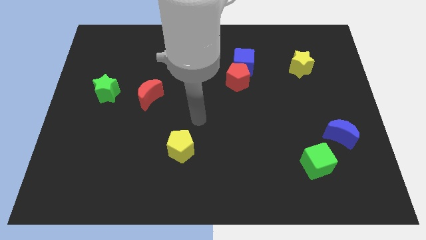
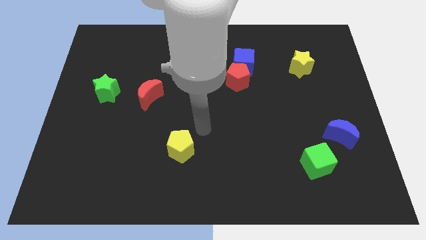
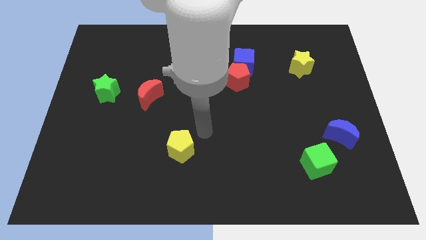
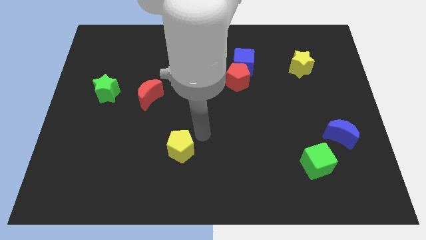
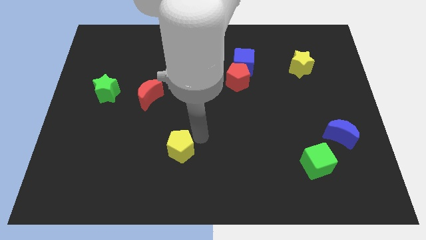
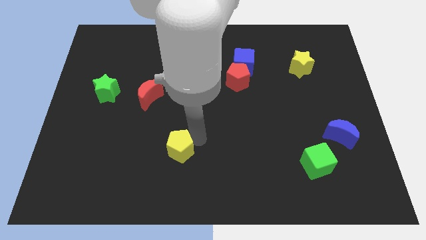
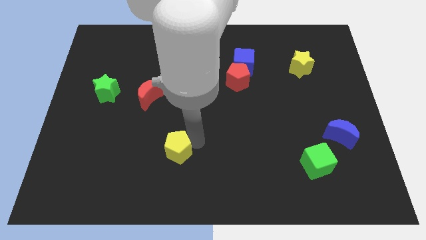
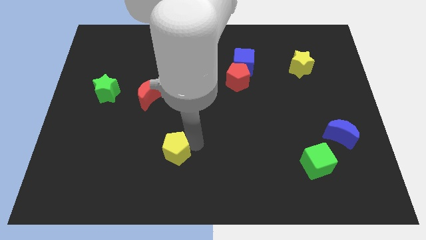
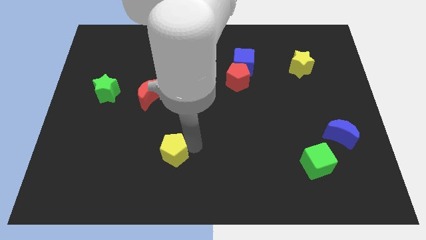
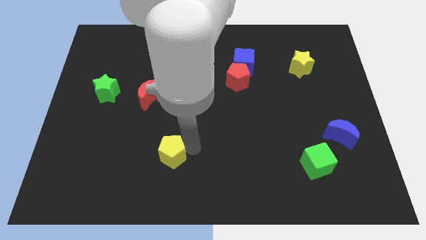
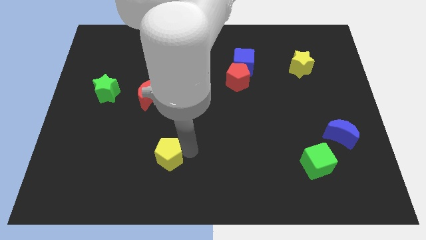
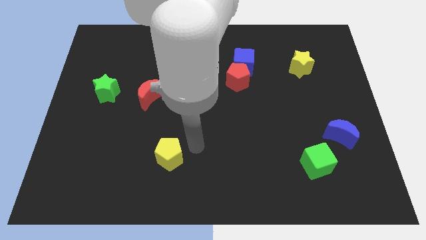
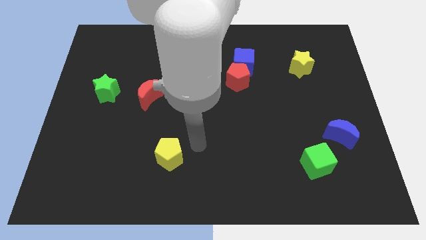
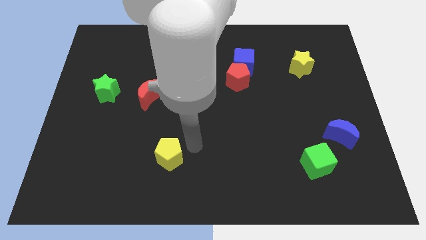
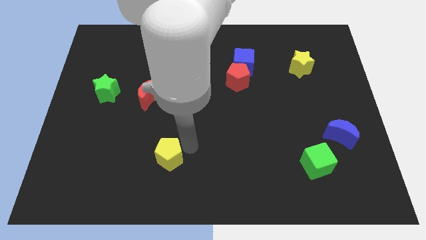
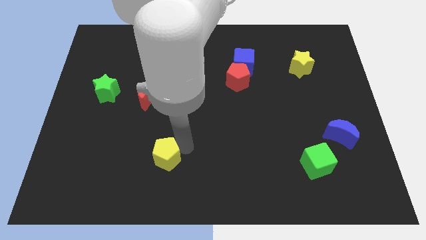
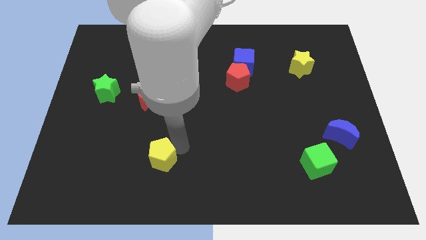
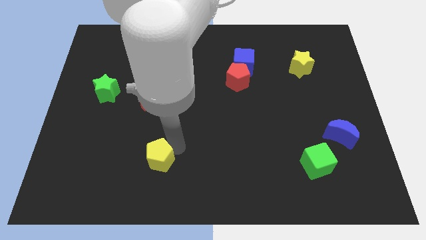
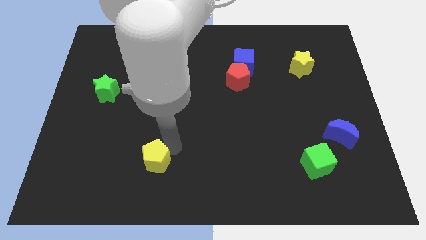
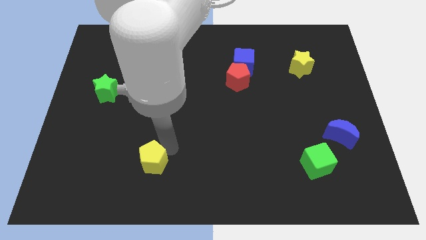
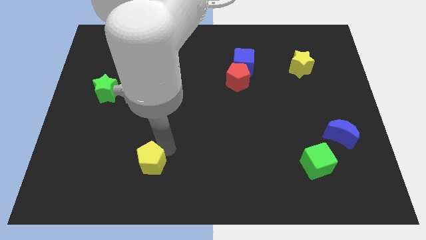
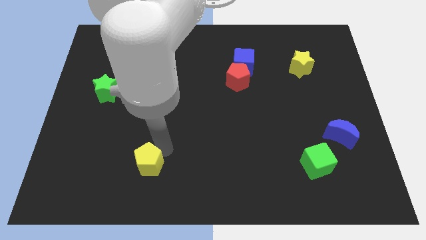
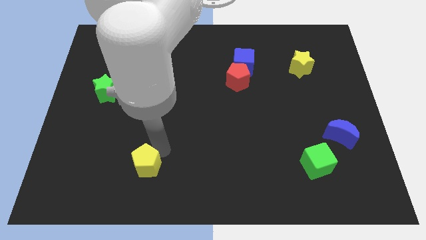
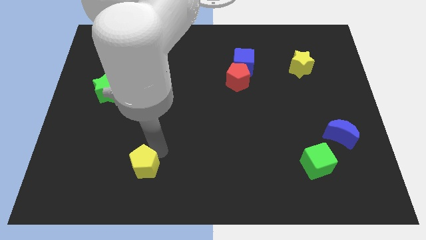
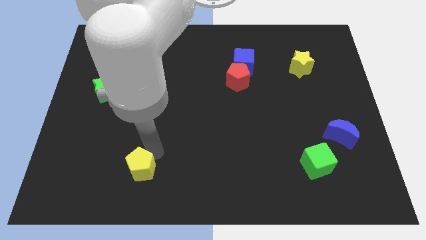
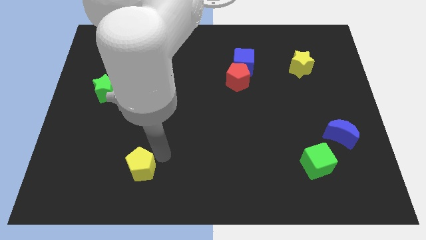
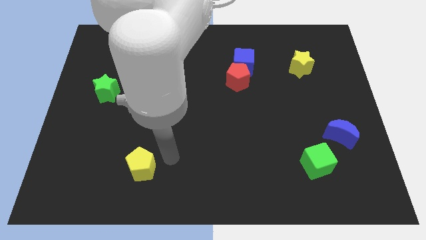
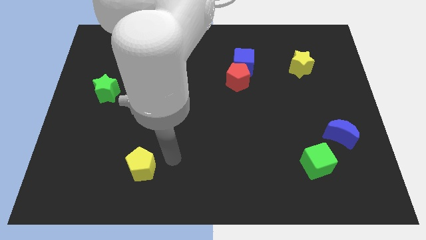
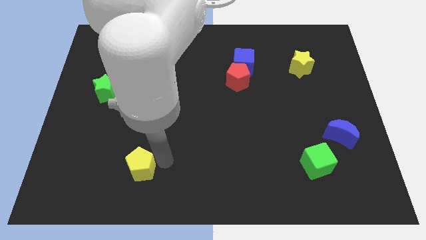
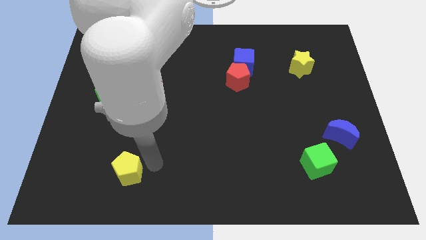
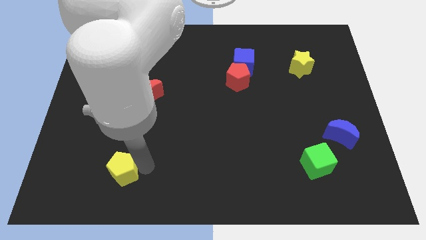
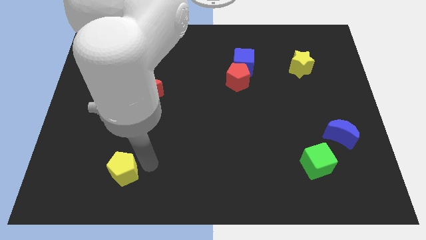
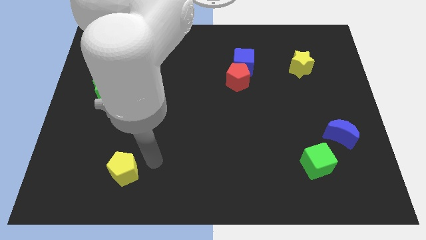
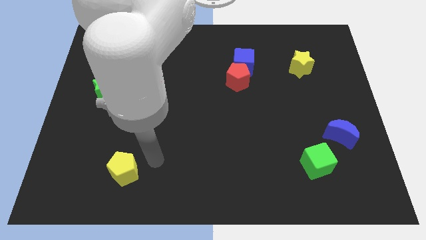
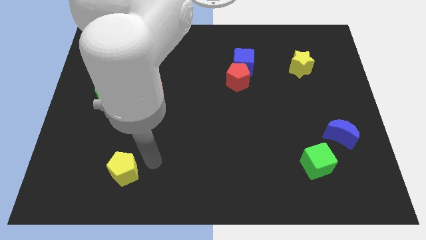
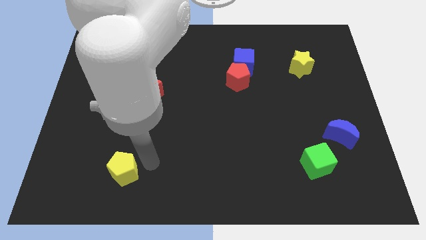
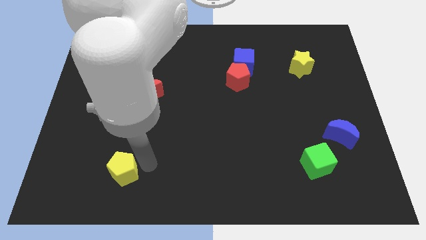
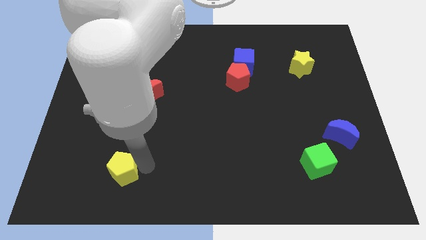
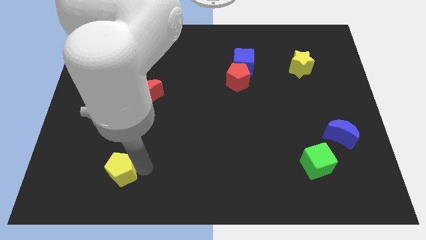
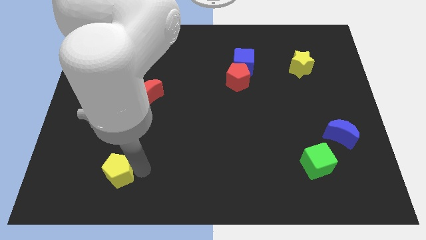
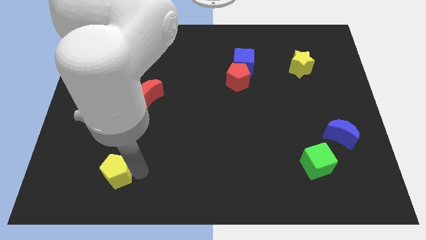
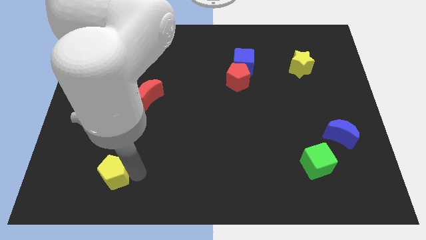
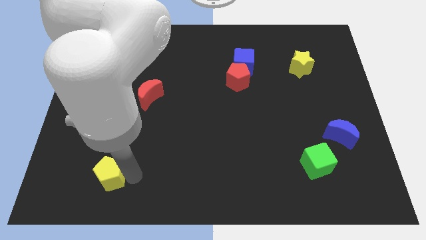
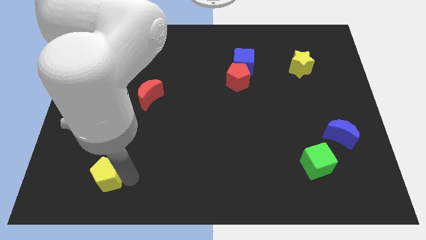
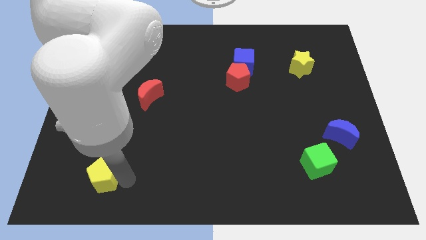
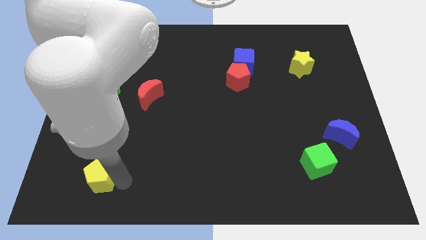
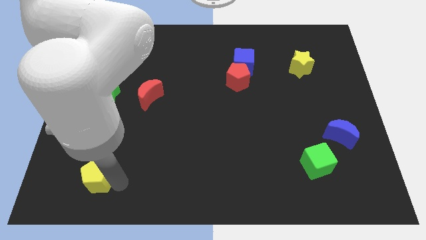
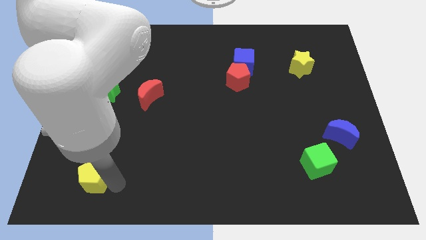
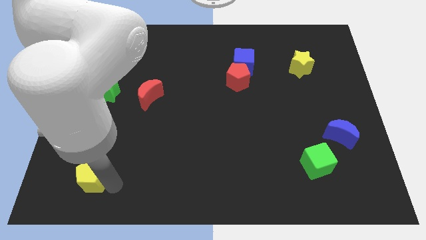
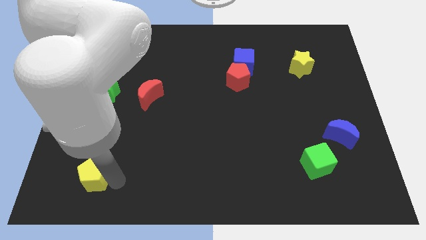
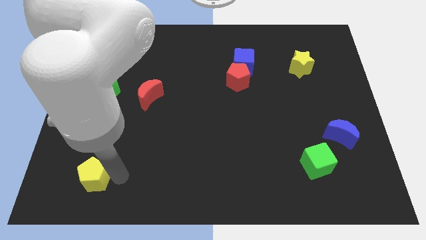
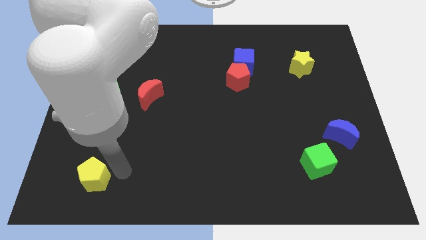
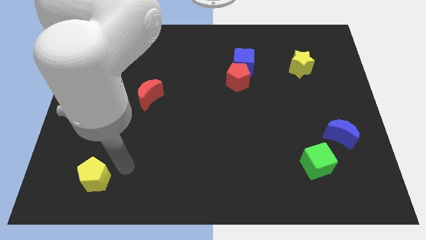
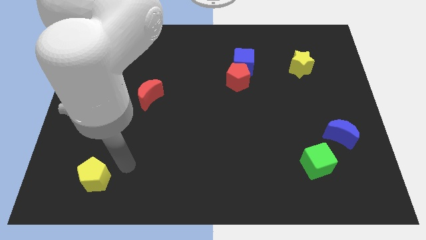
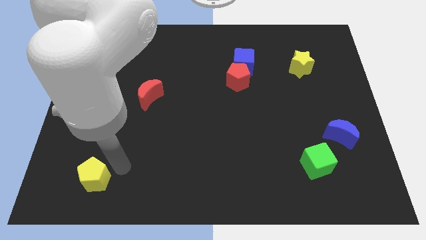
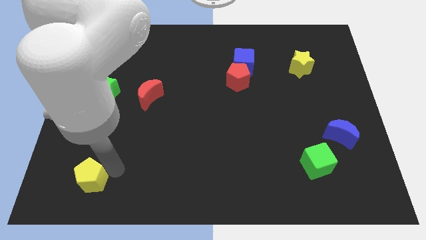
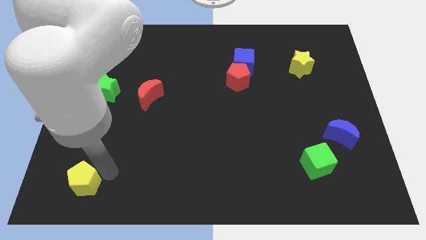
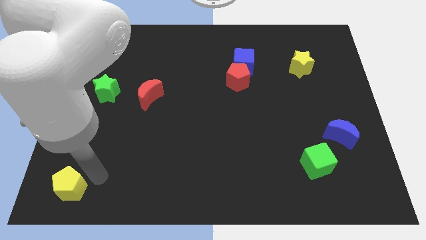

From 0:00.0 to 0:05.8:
push the yellow pentagon to the lower left corner

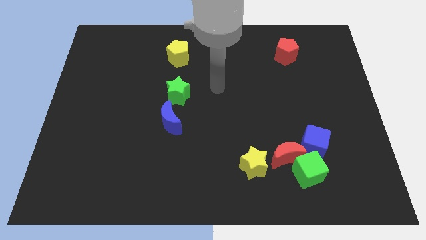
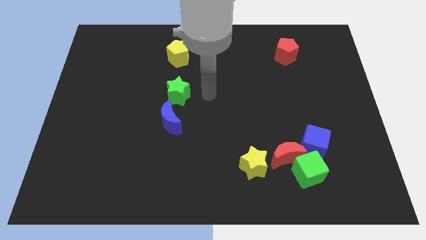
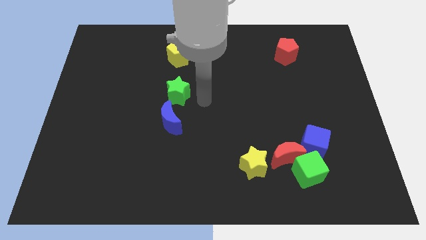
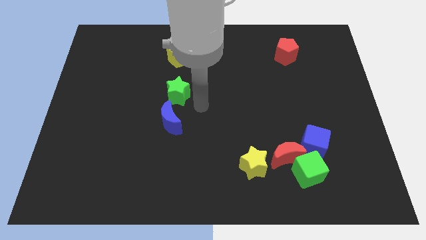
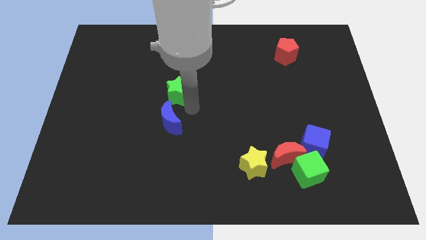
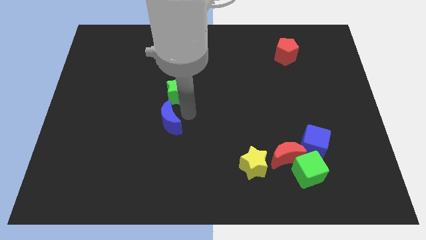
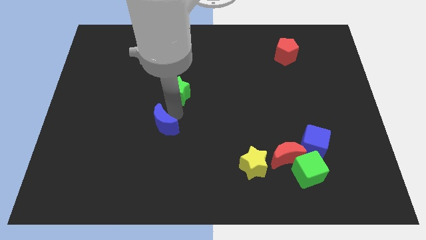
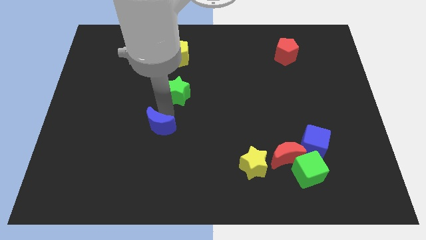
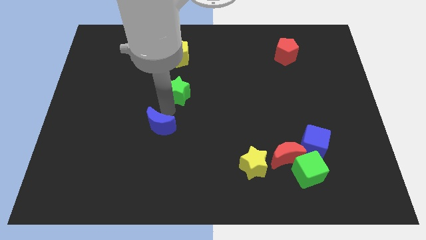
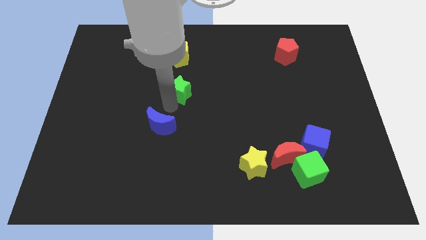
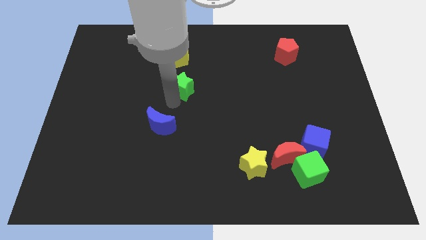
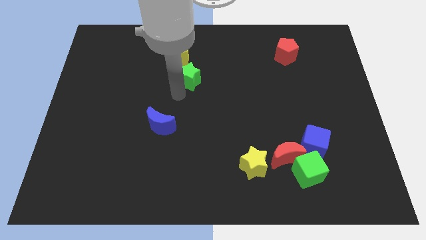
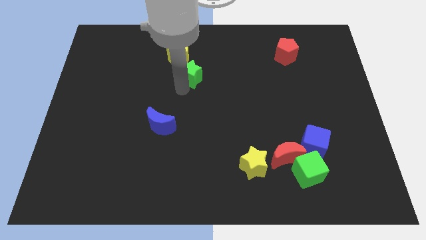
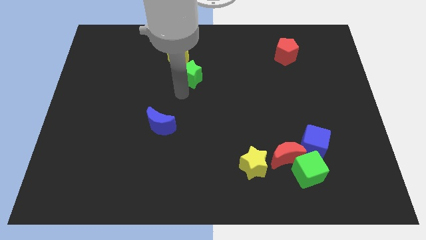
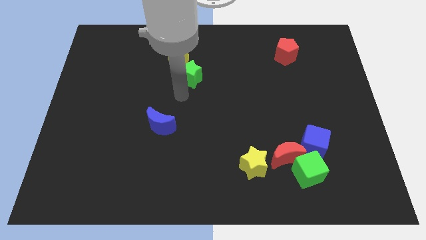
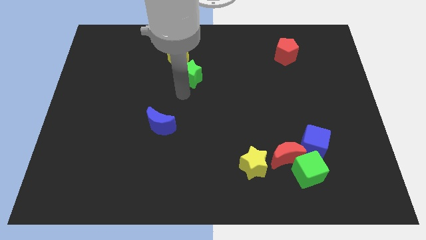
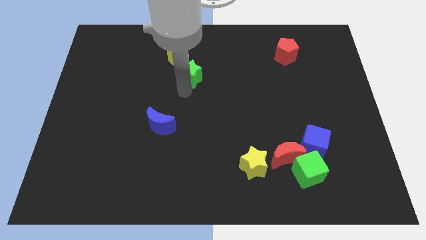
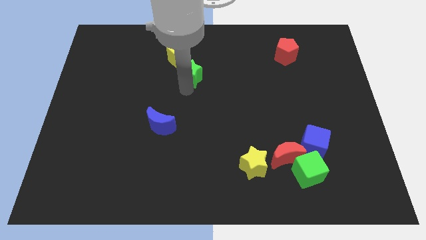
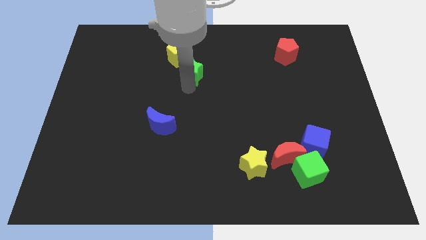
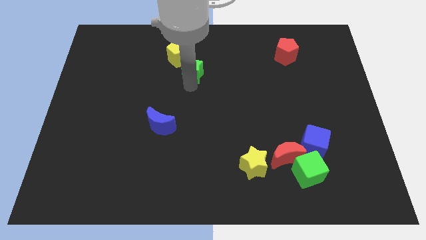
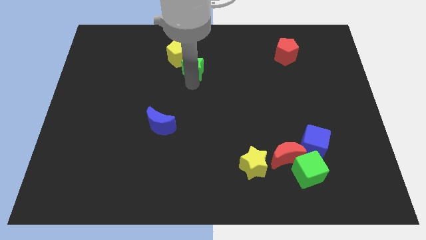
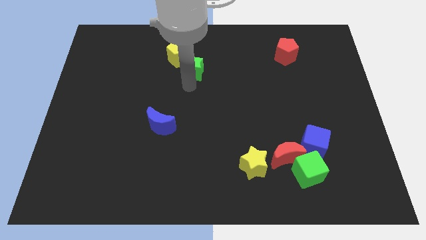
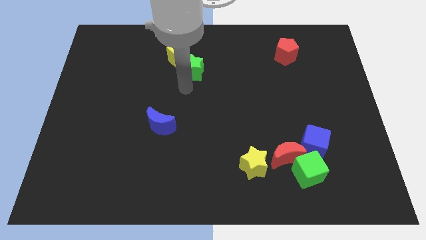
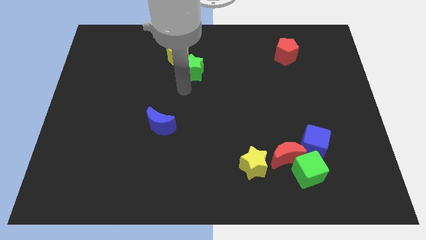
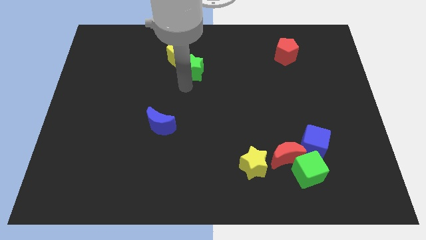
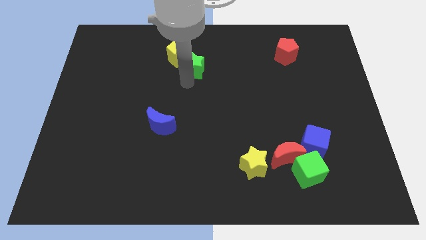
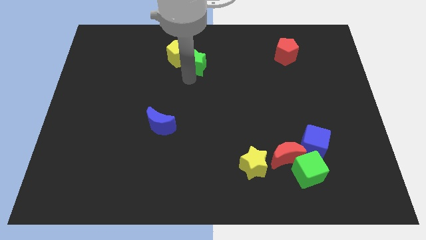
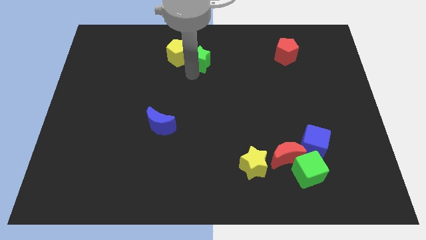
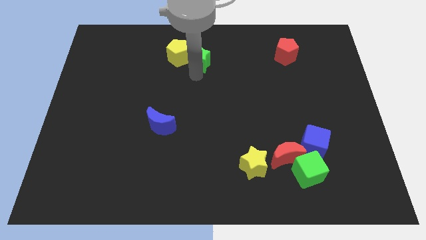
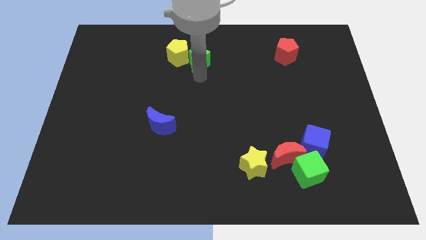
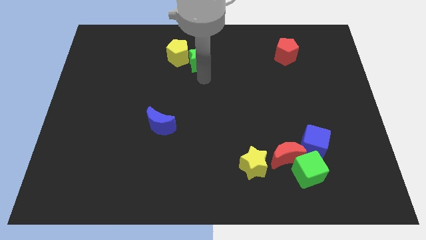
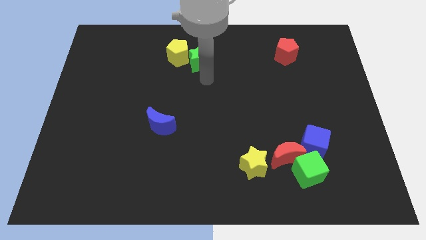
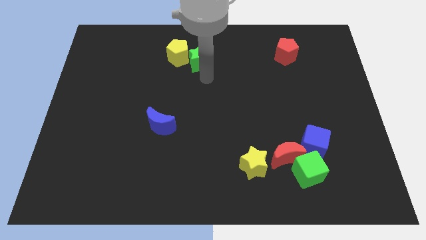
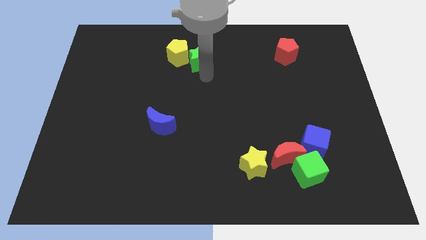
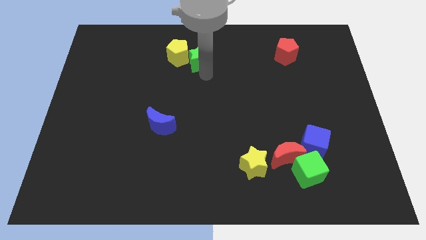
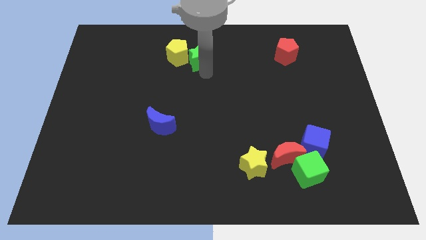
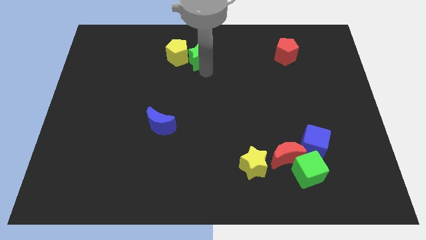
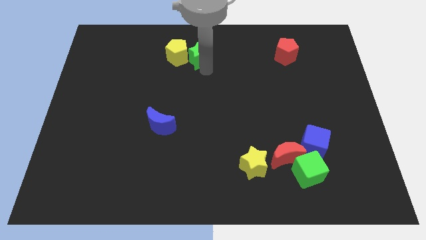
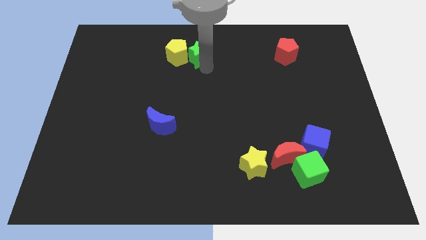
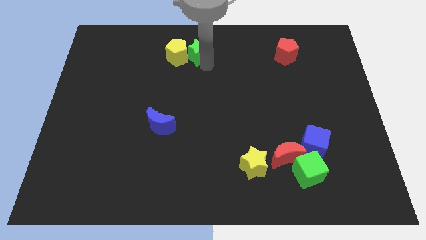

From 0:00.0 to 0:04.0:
slide the green star to the top
